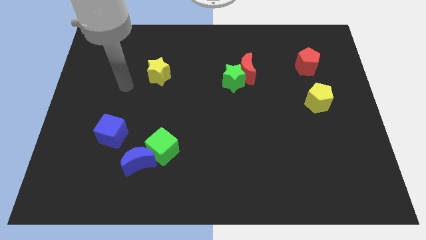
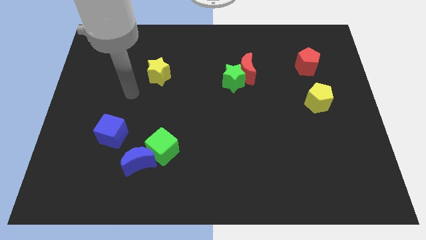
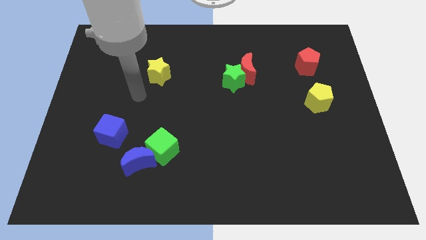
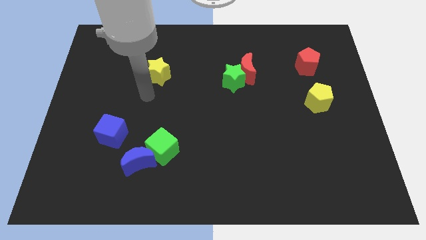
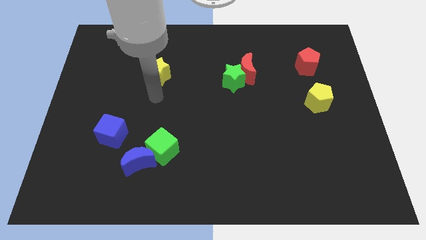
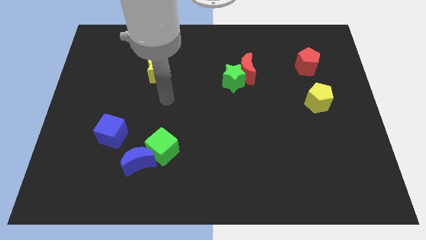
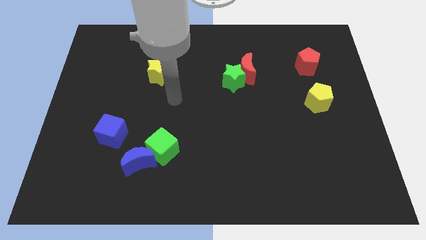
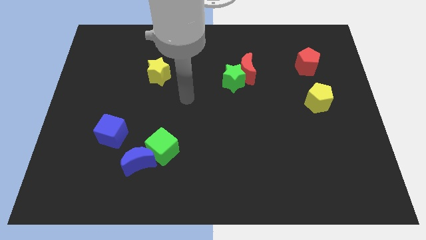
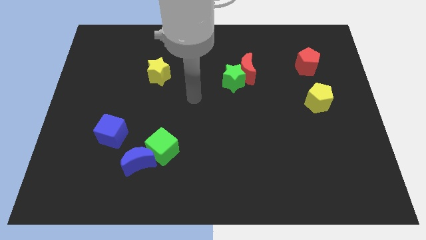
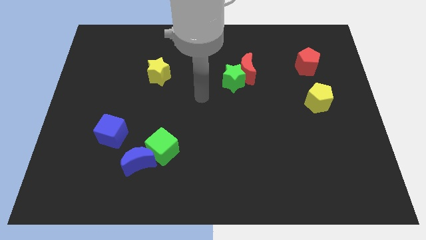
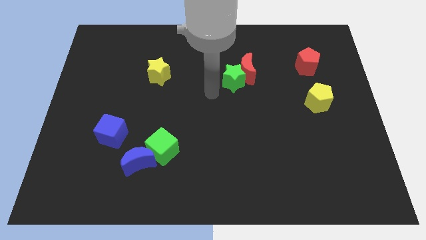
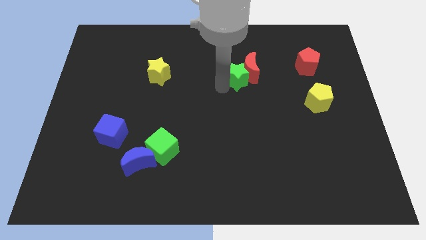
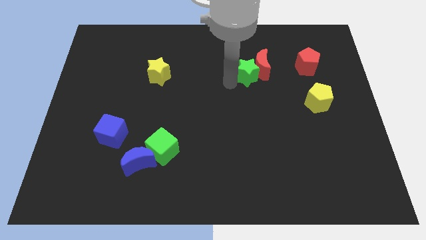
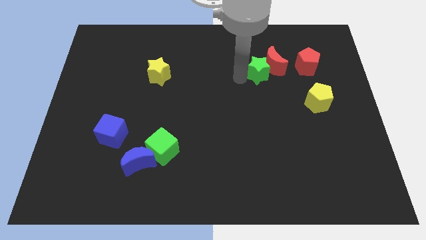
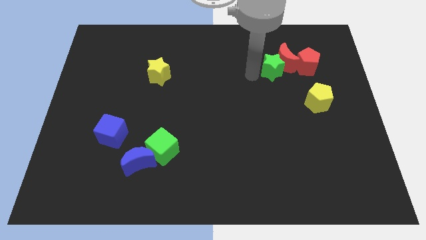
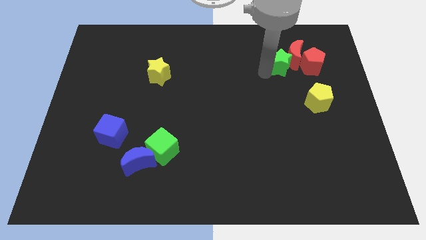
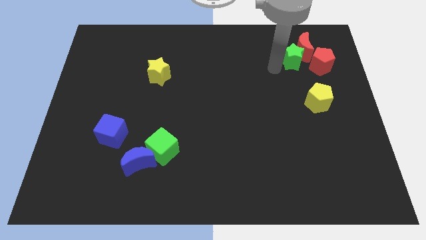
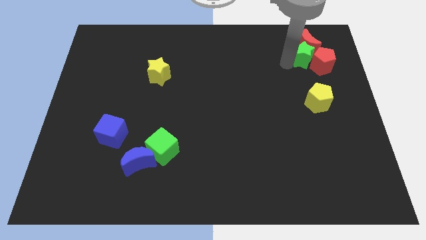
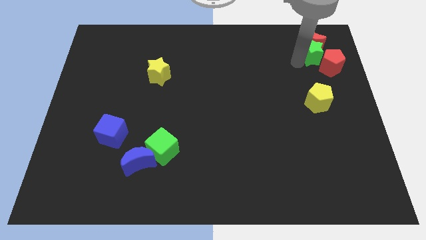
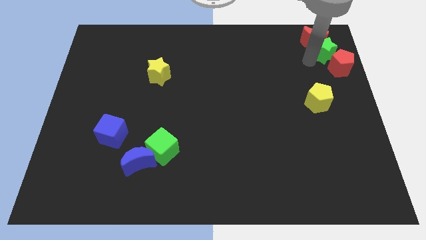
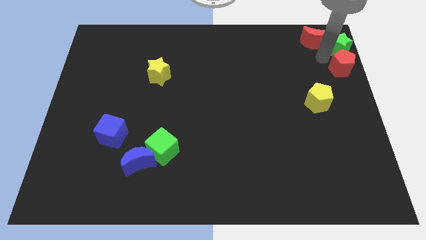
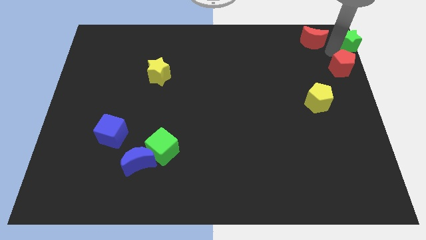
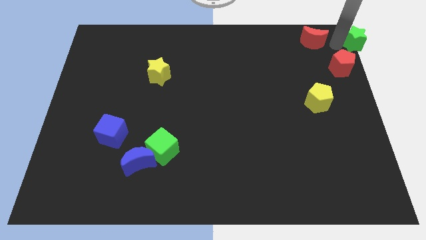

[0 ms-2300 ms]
pull the red moon apart from the green star

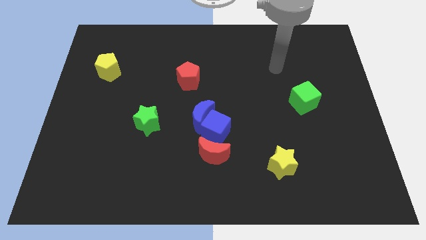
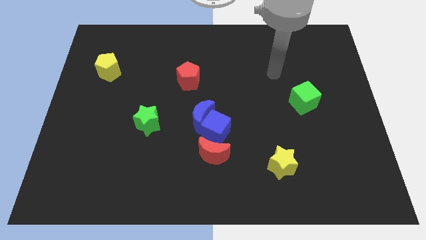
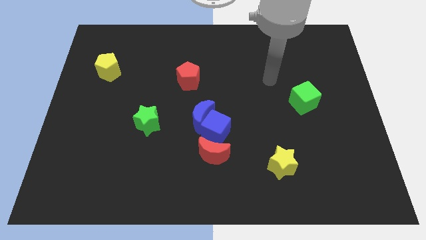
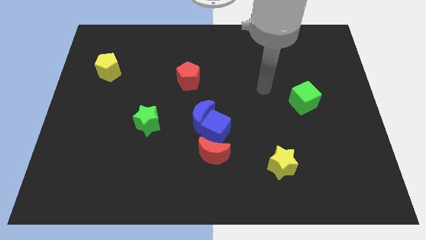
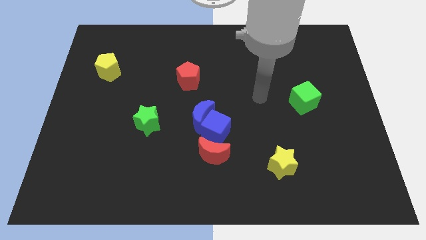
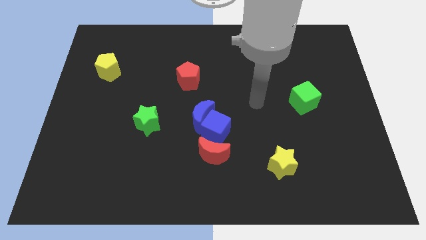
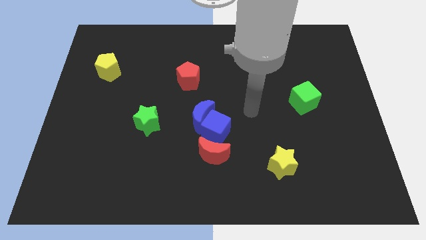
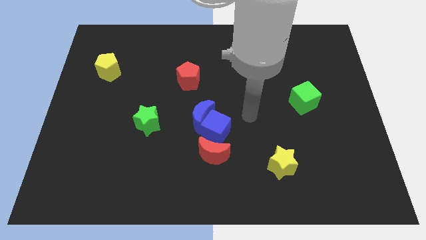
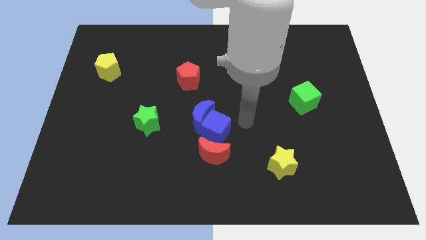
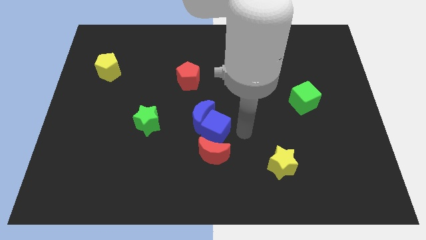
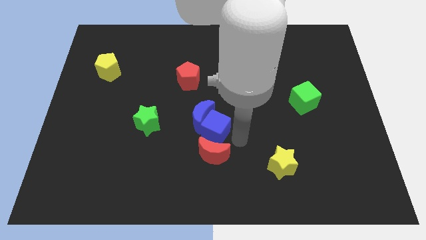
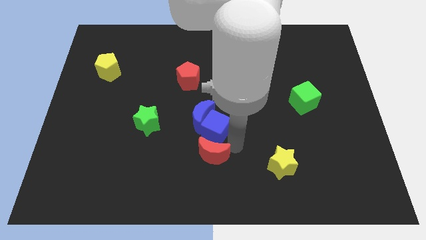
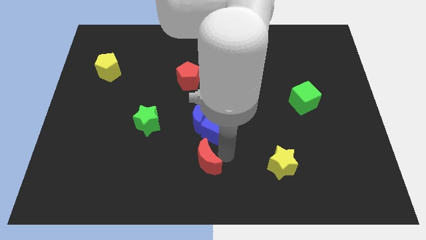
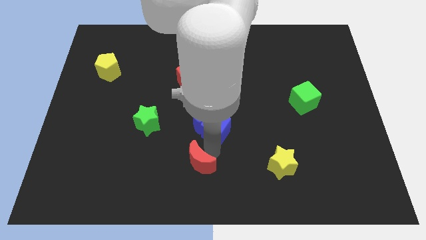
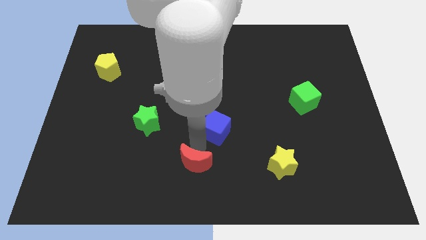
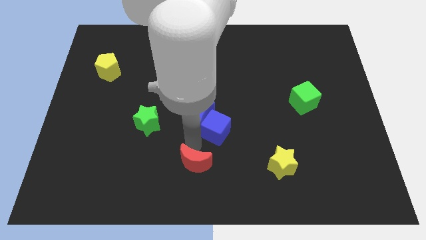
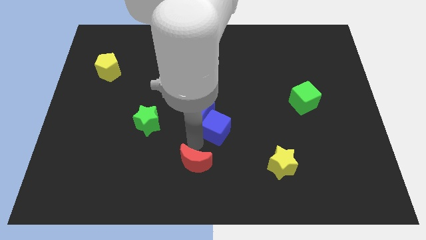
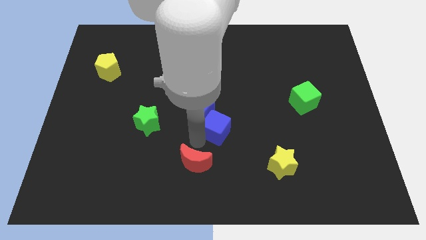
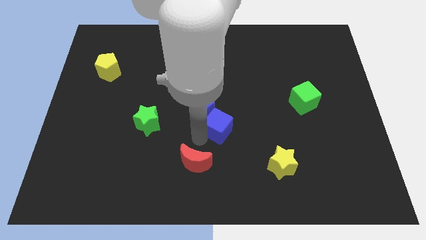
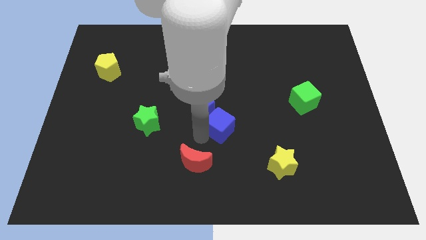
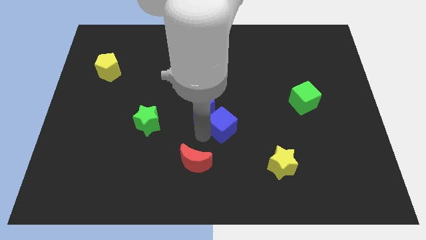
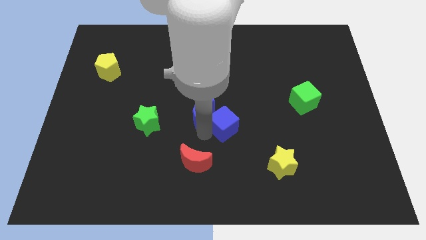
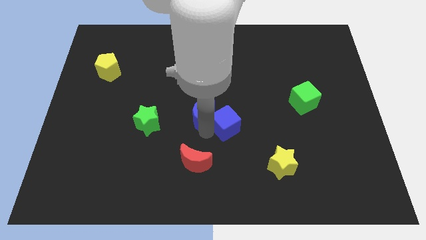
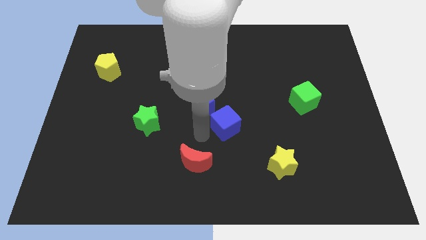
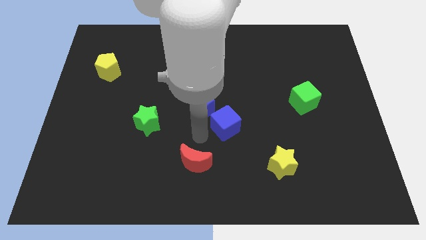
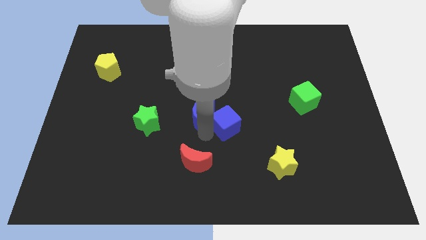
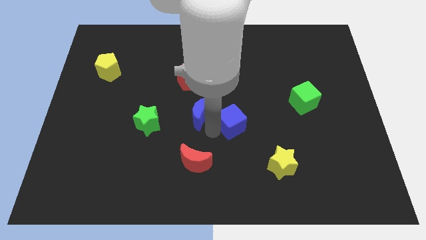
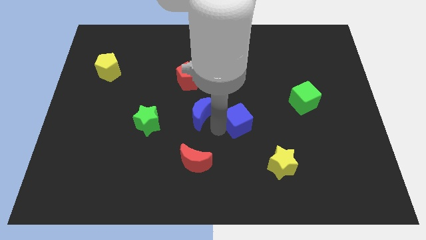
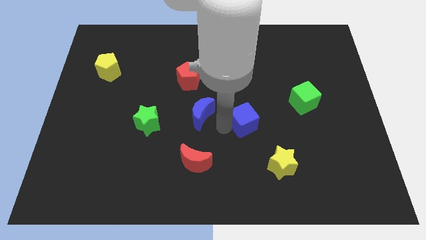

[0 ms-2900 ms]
separate the blue cube from the blue moon and red moon

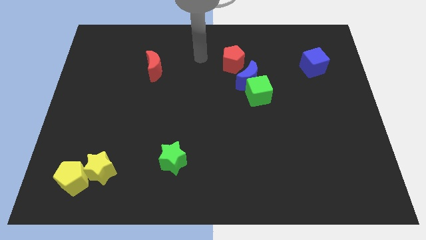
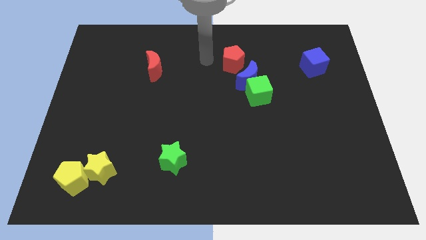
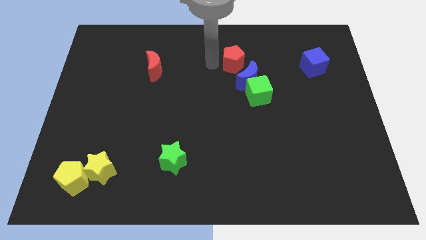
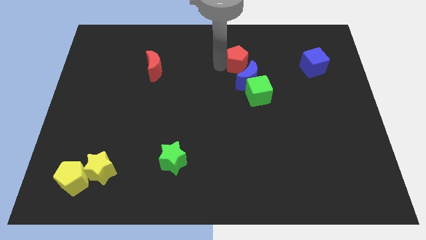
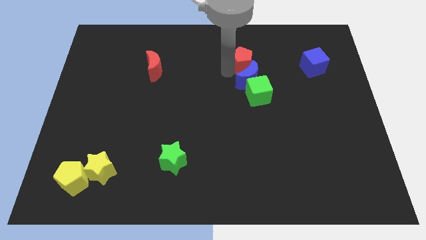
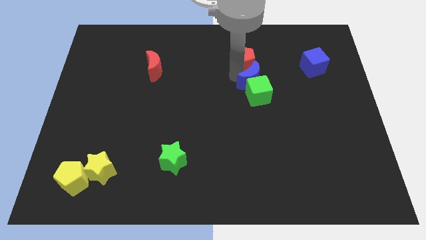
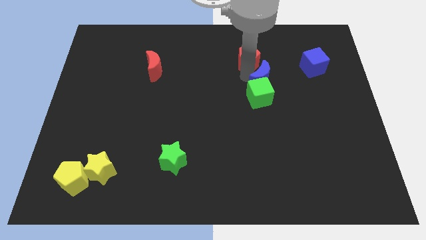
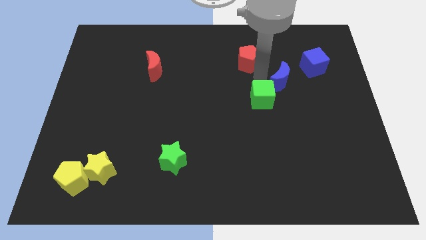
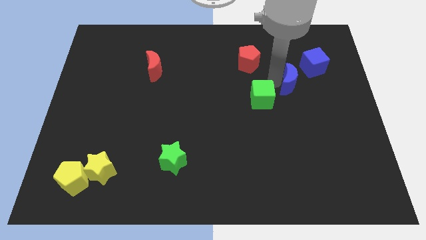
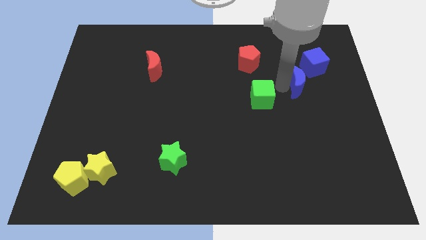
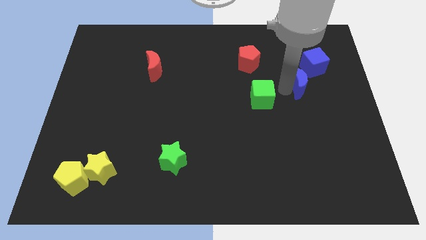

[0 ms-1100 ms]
separate the green cube from the blue moon

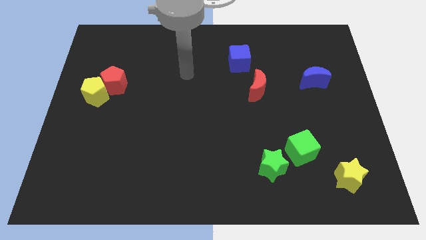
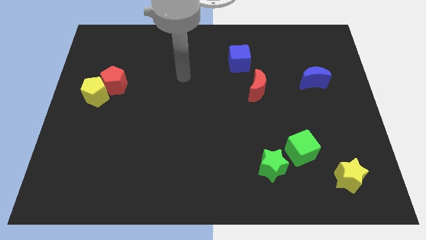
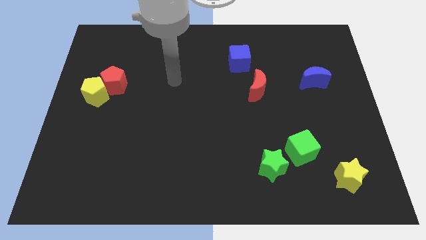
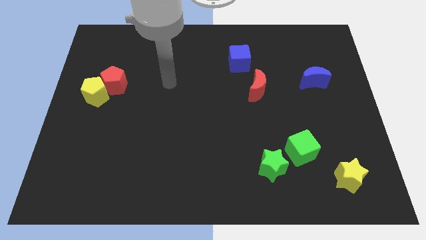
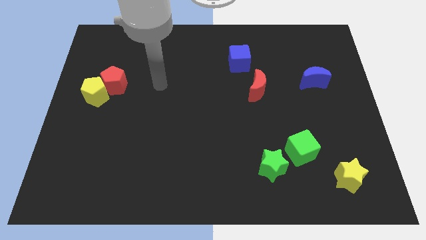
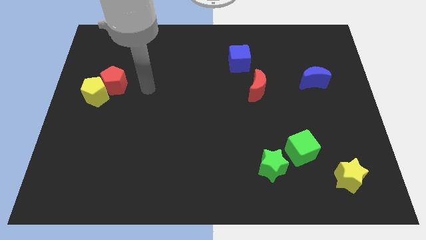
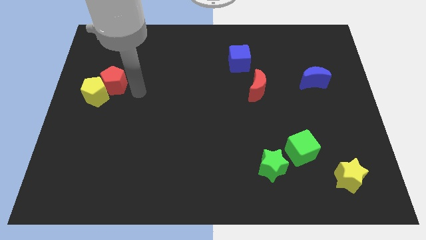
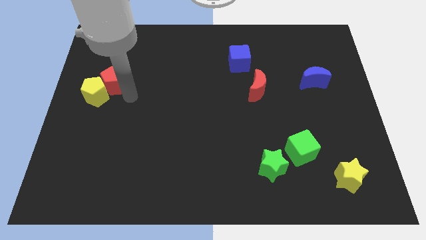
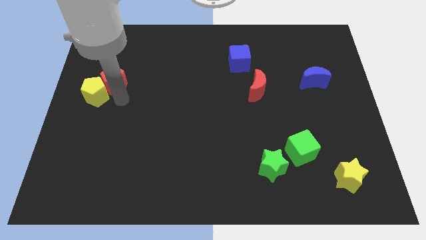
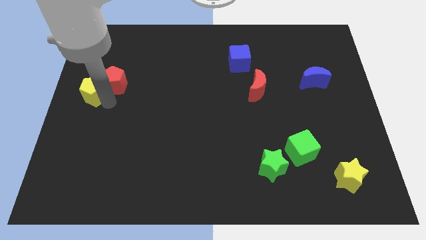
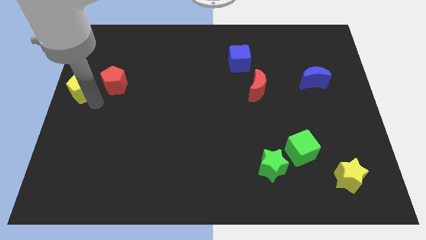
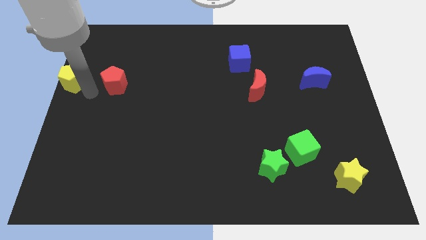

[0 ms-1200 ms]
separate the red pentagon from the yellow pentagon

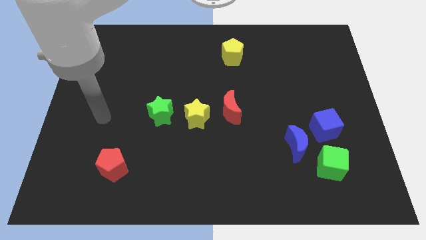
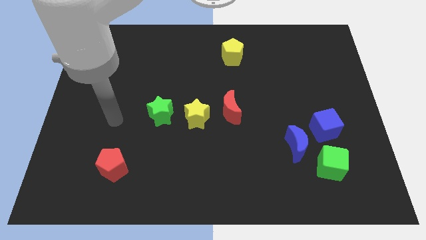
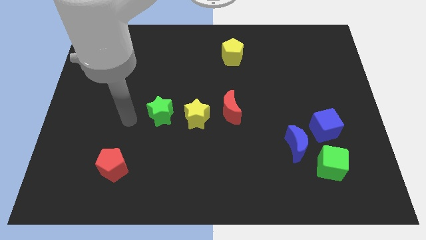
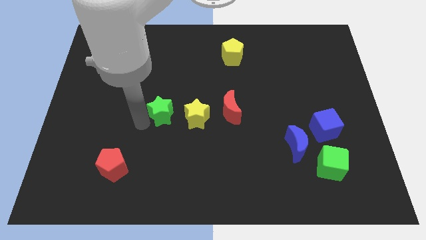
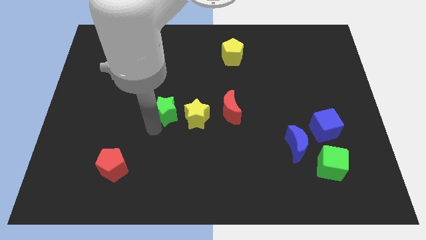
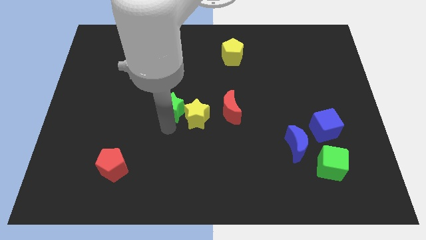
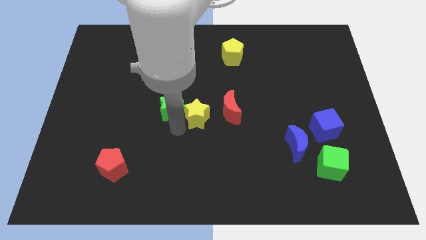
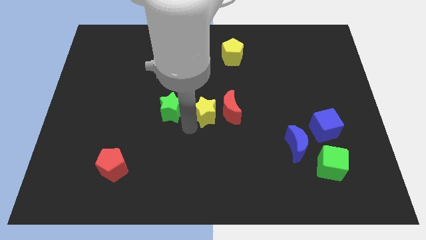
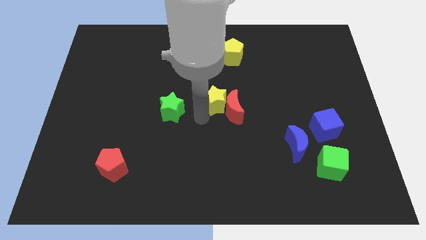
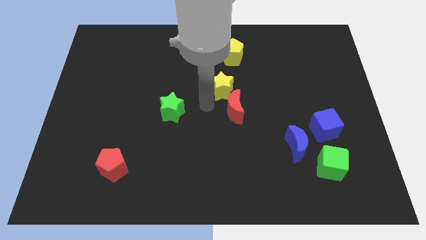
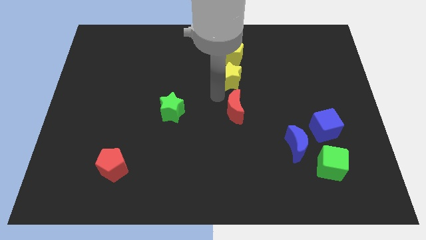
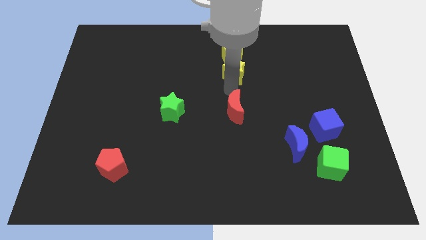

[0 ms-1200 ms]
move the red moon away from the yellow star

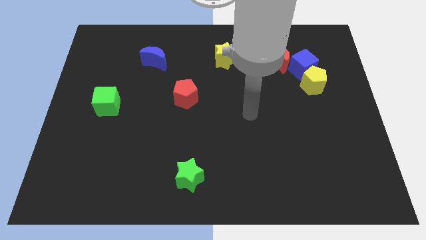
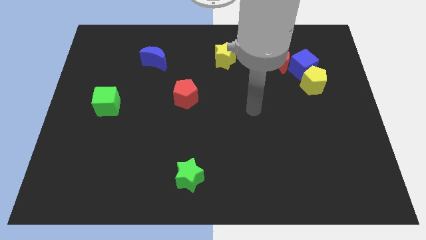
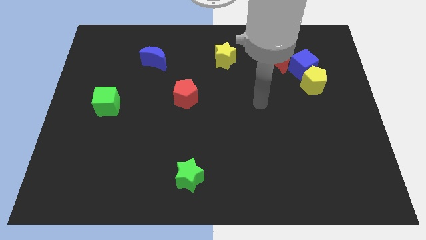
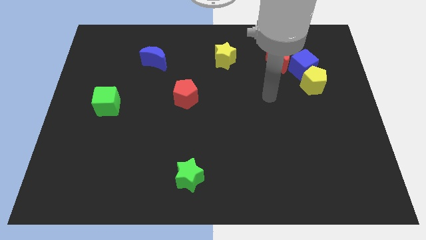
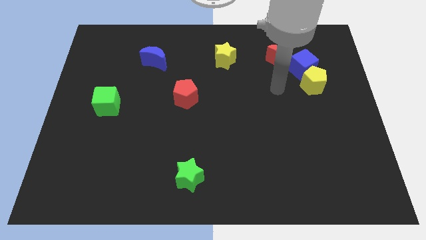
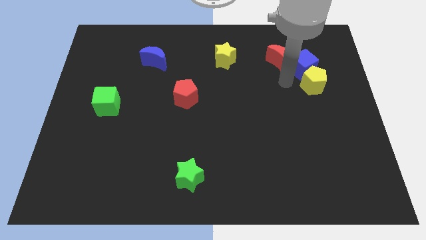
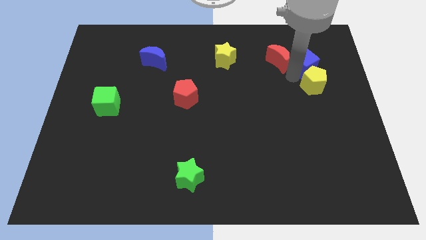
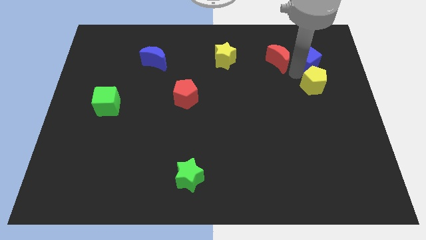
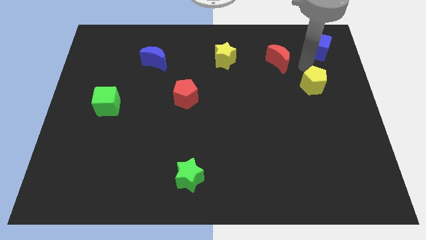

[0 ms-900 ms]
pull the yellow pentagon apart from the blue cube
